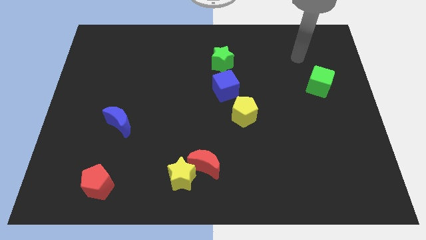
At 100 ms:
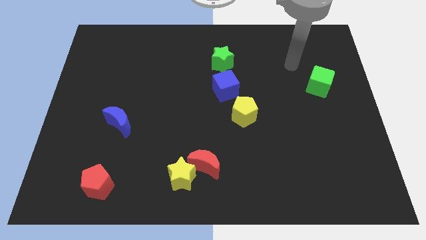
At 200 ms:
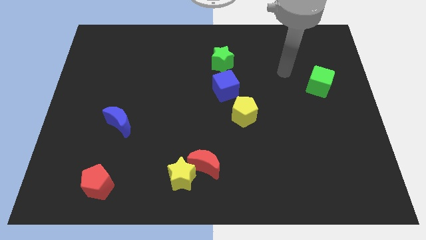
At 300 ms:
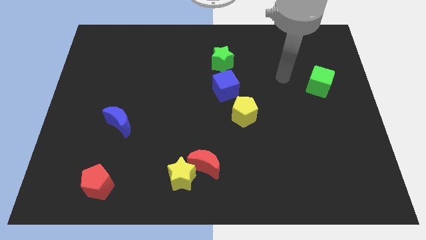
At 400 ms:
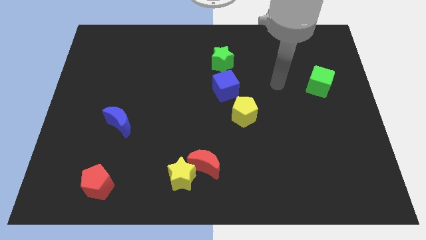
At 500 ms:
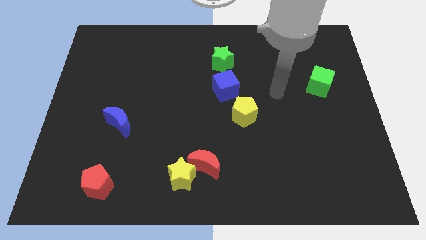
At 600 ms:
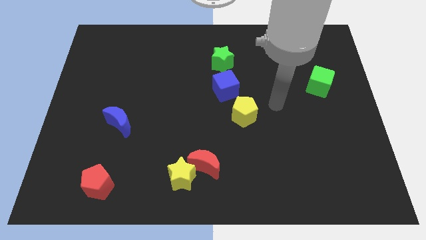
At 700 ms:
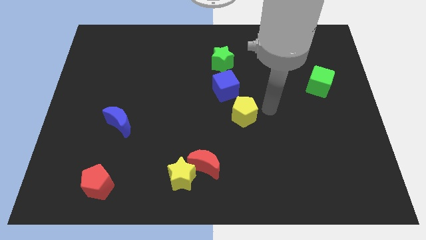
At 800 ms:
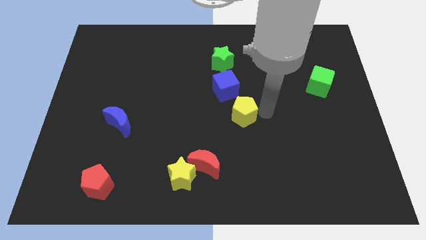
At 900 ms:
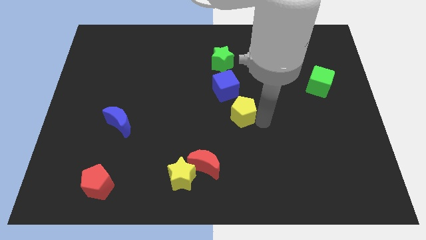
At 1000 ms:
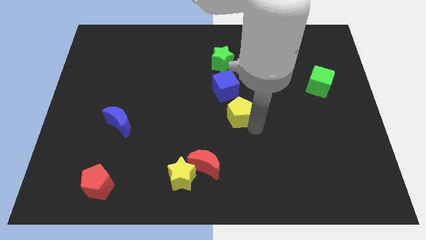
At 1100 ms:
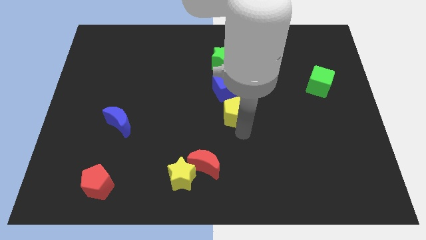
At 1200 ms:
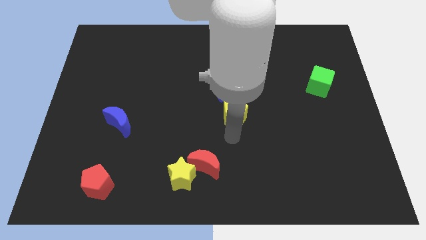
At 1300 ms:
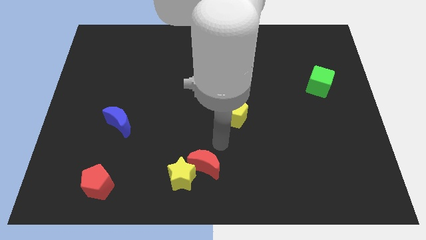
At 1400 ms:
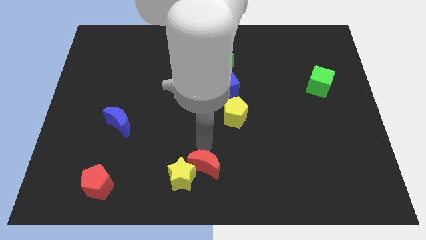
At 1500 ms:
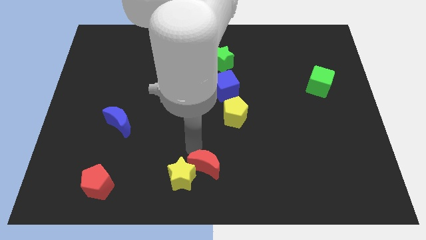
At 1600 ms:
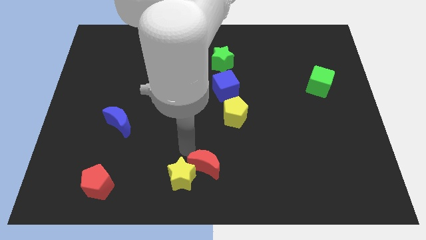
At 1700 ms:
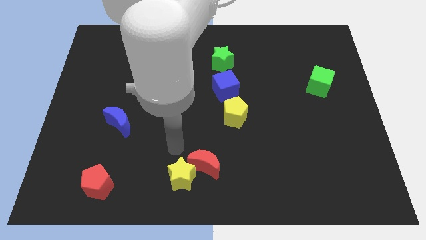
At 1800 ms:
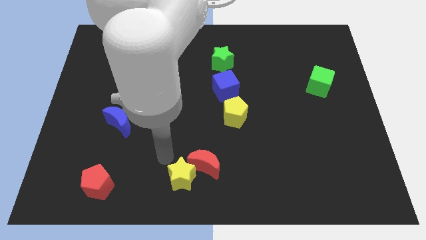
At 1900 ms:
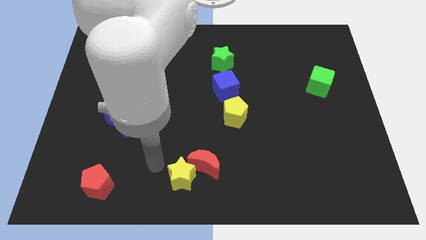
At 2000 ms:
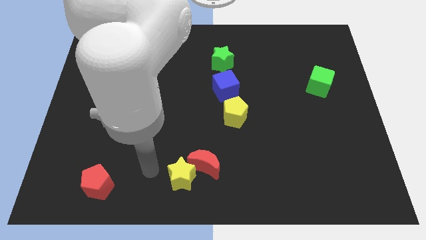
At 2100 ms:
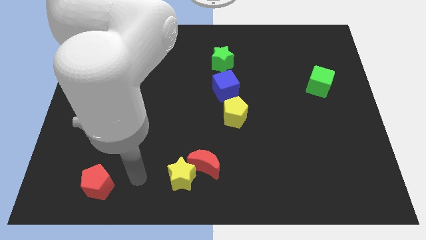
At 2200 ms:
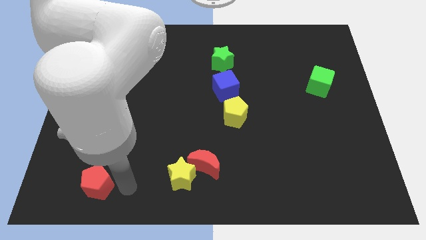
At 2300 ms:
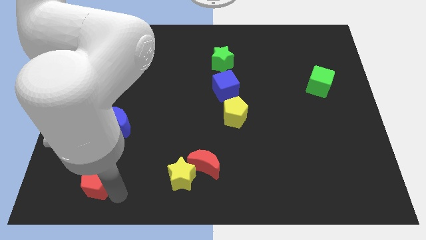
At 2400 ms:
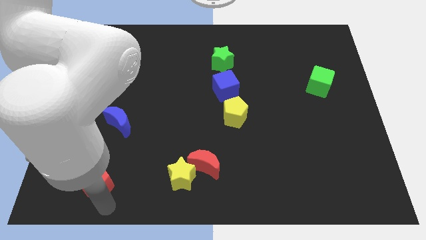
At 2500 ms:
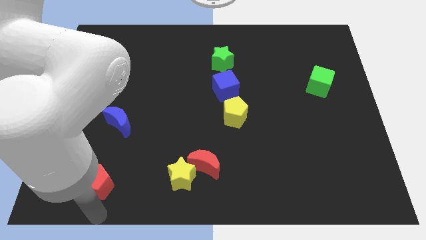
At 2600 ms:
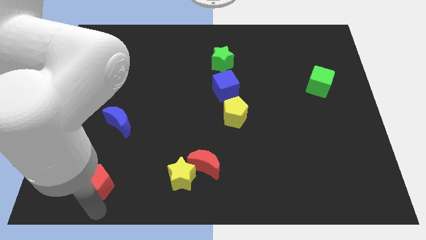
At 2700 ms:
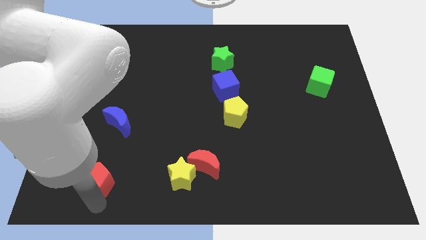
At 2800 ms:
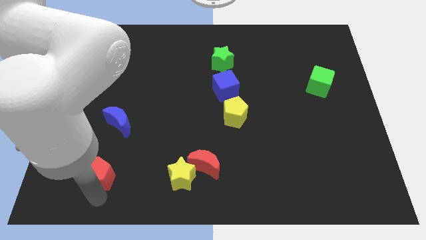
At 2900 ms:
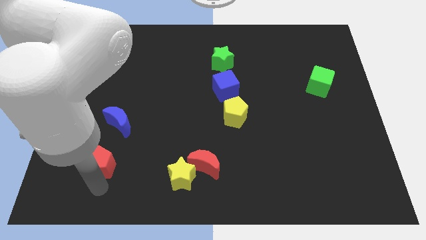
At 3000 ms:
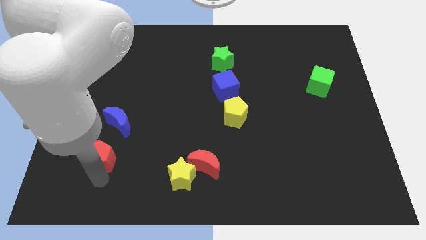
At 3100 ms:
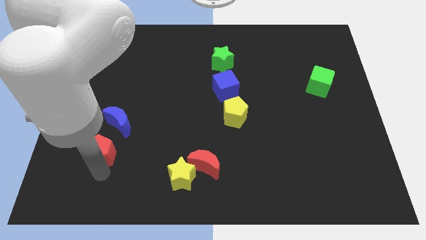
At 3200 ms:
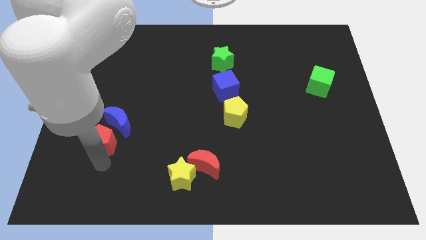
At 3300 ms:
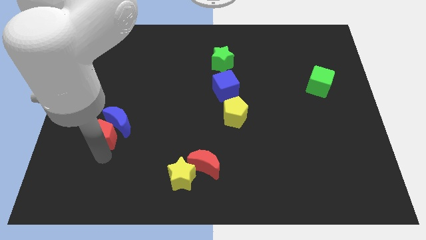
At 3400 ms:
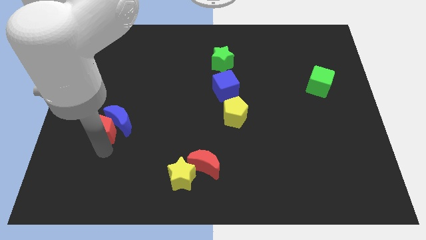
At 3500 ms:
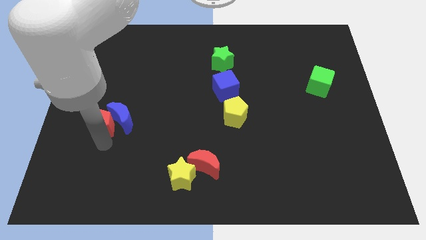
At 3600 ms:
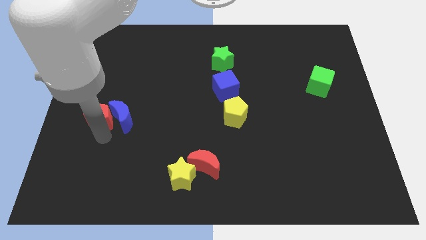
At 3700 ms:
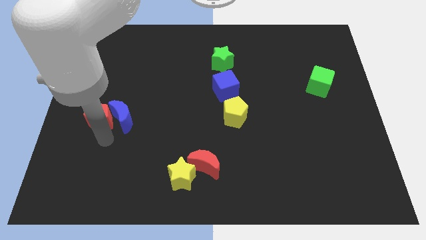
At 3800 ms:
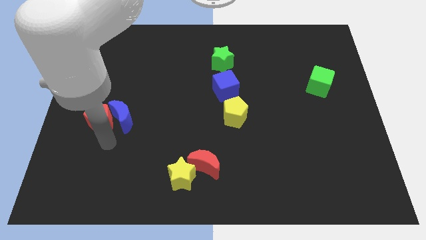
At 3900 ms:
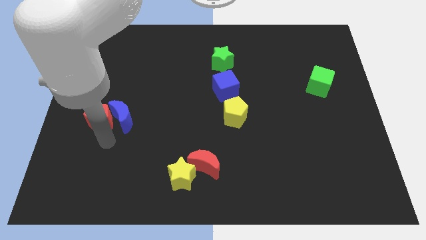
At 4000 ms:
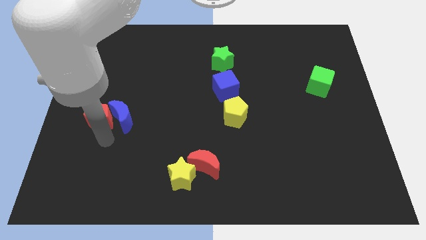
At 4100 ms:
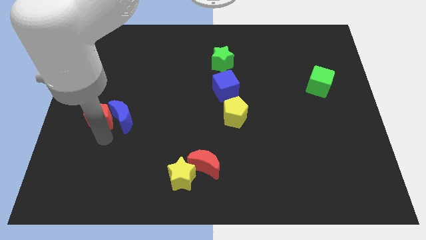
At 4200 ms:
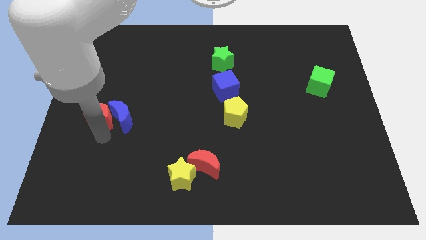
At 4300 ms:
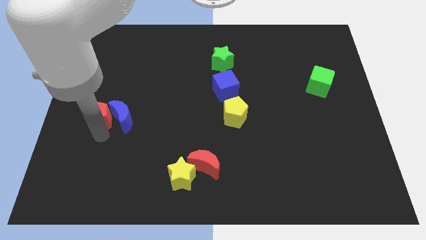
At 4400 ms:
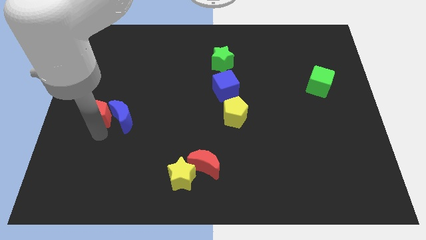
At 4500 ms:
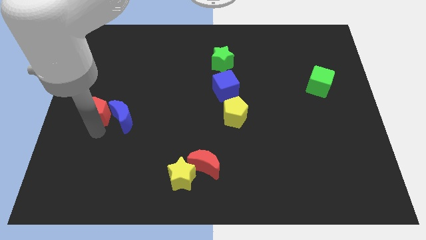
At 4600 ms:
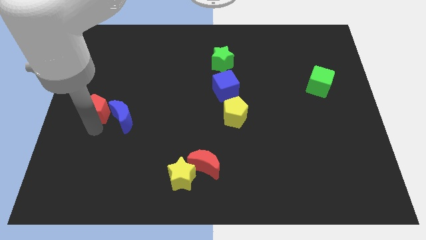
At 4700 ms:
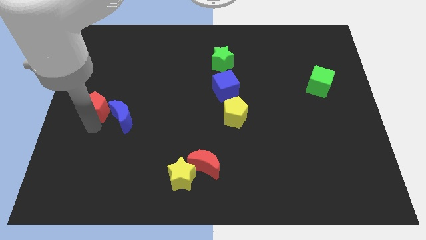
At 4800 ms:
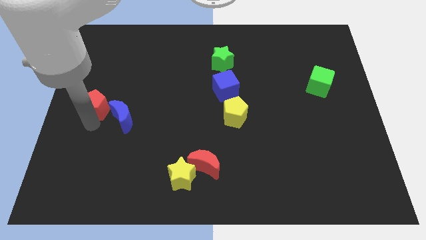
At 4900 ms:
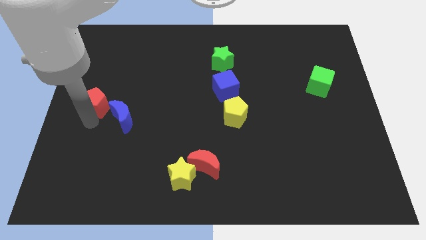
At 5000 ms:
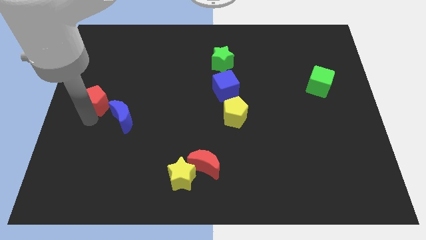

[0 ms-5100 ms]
move the red pentagon up

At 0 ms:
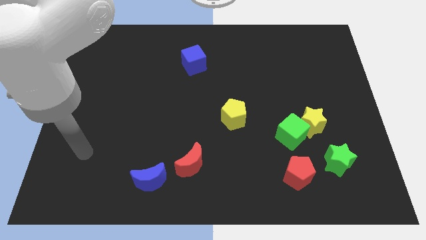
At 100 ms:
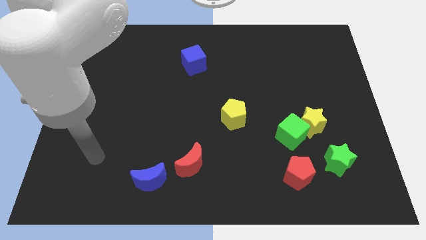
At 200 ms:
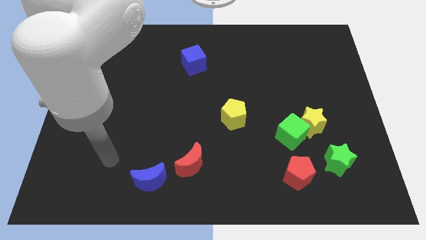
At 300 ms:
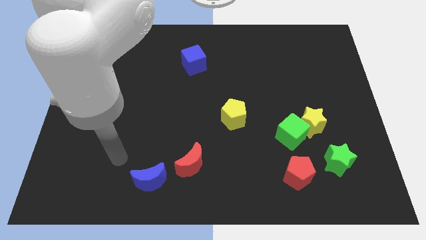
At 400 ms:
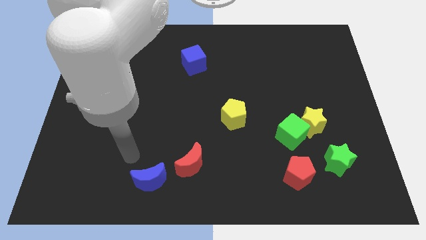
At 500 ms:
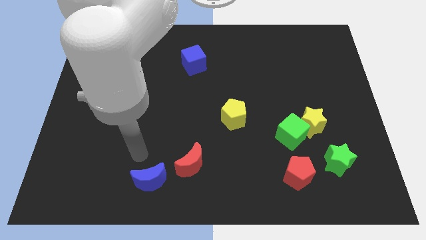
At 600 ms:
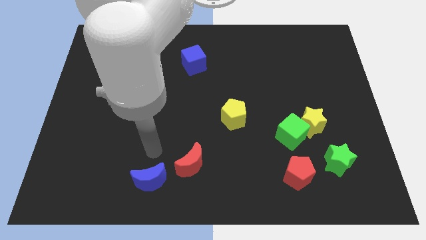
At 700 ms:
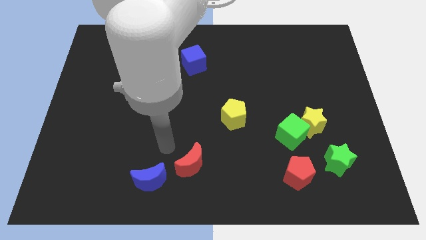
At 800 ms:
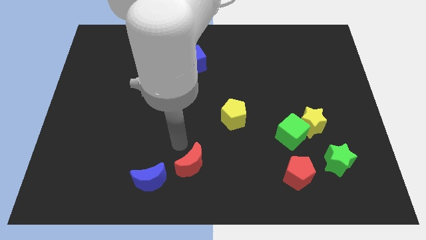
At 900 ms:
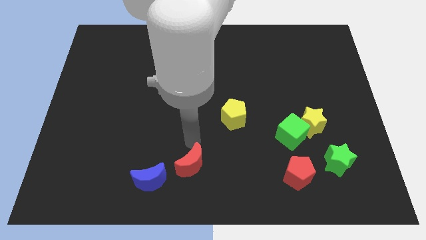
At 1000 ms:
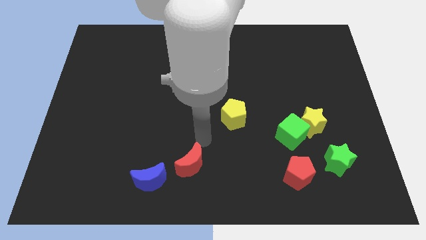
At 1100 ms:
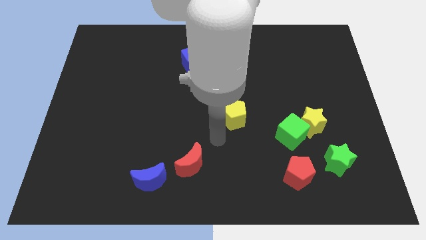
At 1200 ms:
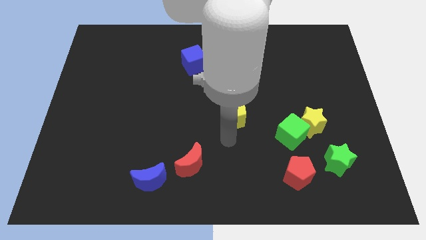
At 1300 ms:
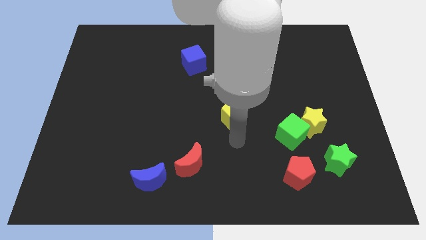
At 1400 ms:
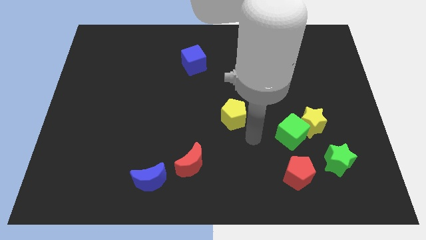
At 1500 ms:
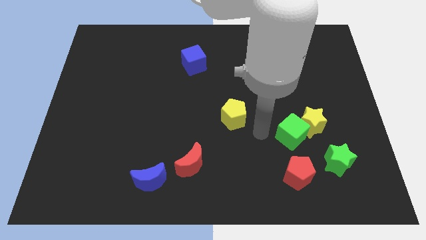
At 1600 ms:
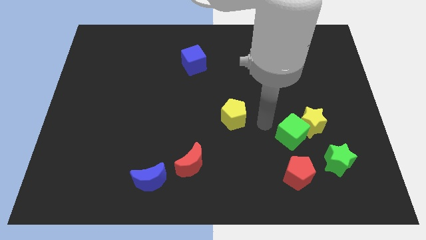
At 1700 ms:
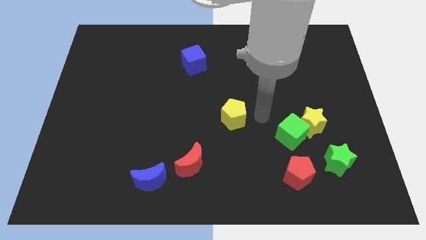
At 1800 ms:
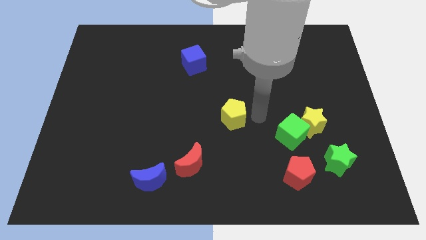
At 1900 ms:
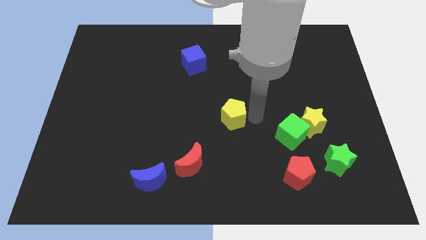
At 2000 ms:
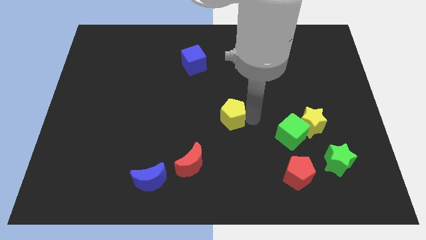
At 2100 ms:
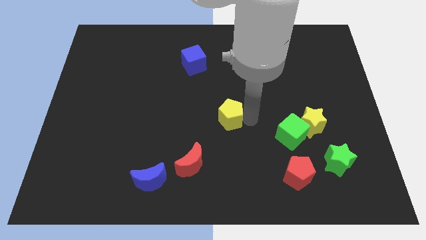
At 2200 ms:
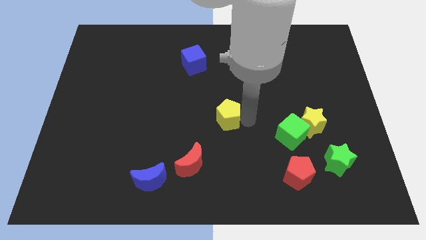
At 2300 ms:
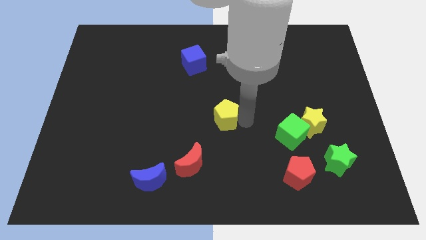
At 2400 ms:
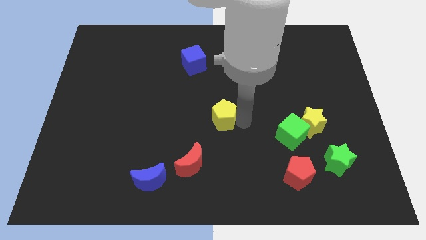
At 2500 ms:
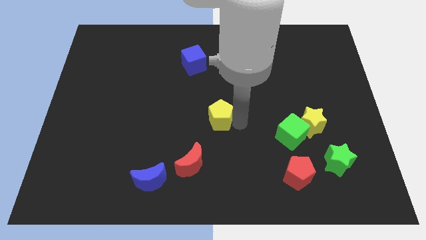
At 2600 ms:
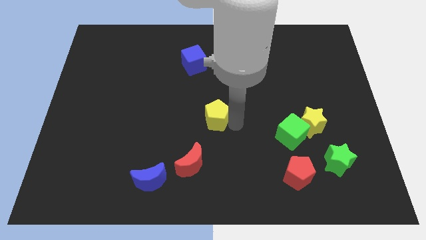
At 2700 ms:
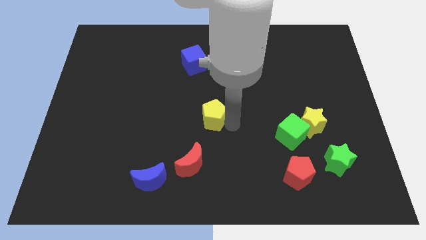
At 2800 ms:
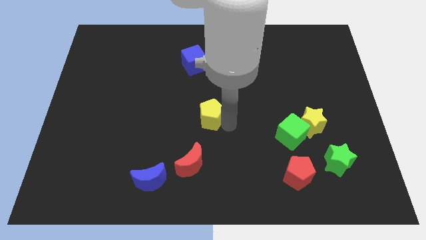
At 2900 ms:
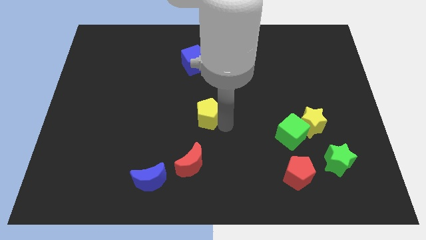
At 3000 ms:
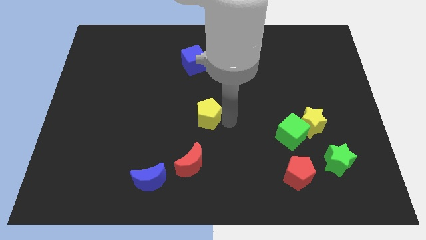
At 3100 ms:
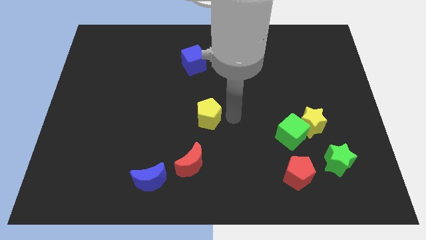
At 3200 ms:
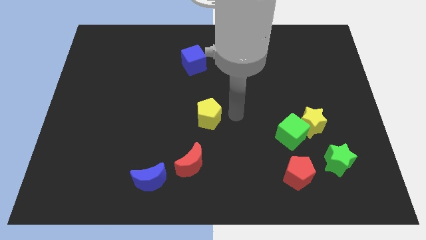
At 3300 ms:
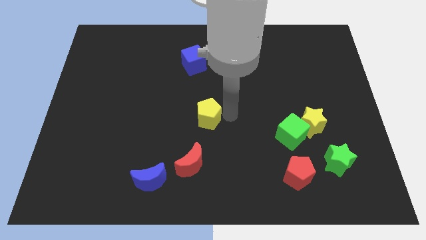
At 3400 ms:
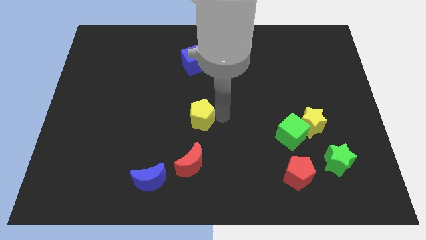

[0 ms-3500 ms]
move the yellow pentagon a little left

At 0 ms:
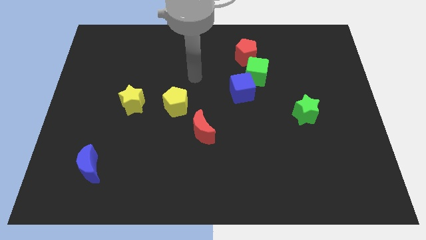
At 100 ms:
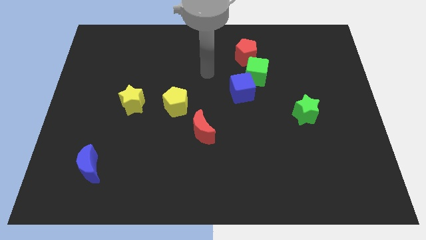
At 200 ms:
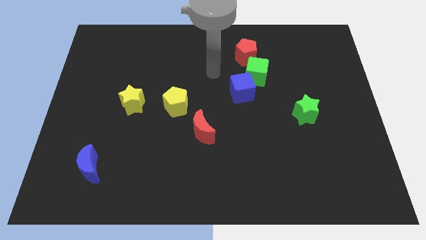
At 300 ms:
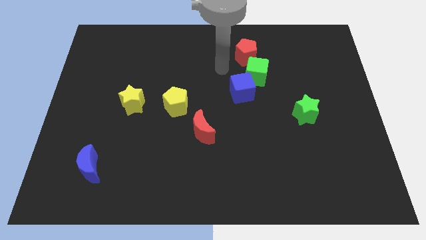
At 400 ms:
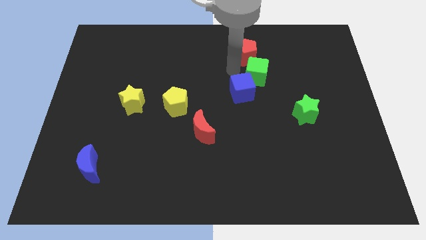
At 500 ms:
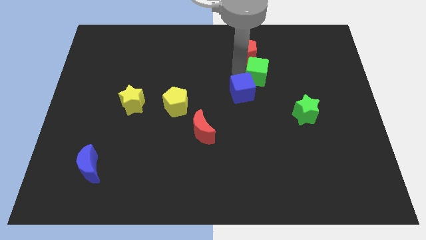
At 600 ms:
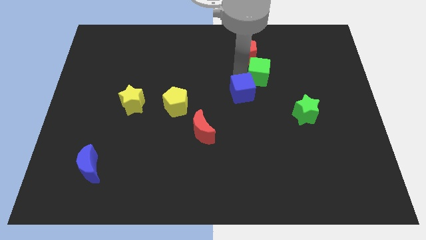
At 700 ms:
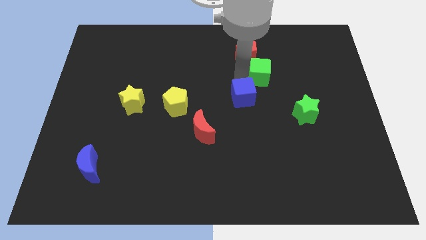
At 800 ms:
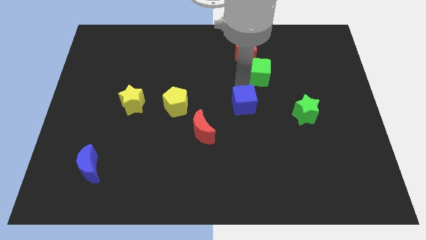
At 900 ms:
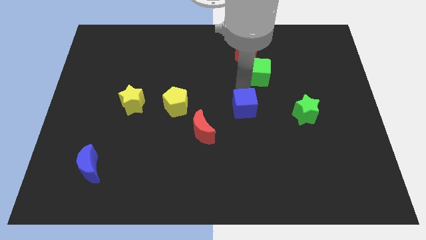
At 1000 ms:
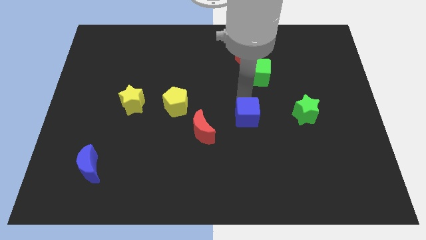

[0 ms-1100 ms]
slightly move the blue cube down
